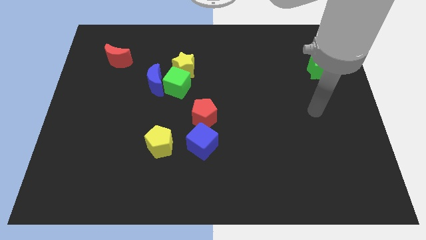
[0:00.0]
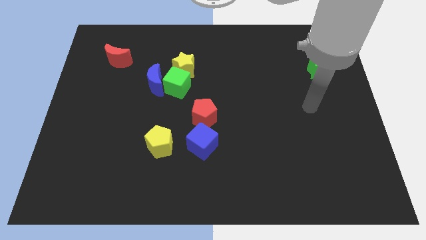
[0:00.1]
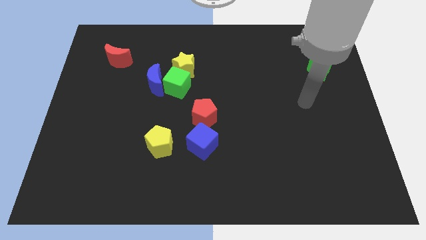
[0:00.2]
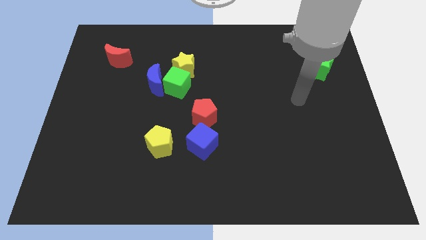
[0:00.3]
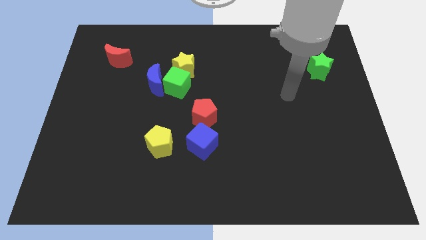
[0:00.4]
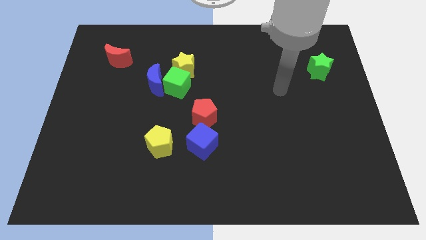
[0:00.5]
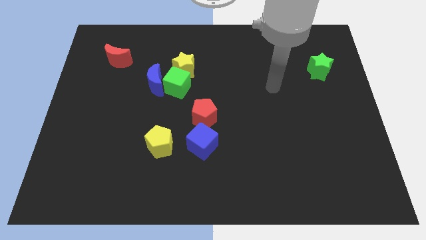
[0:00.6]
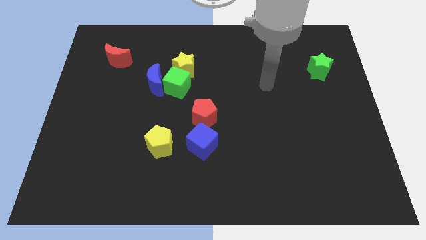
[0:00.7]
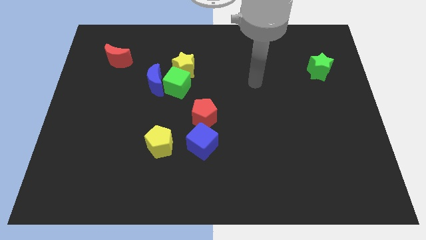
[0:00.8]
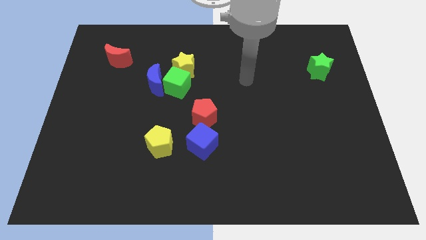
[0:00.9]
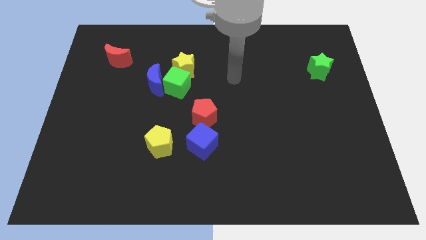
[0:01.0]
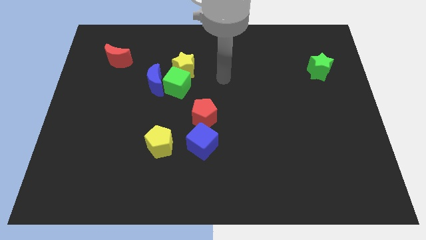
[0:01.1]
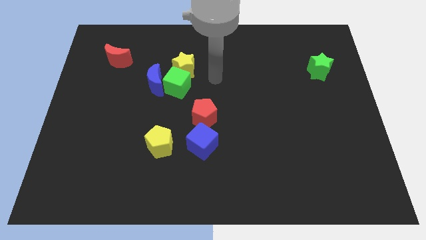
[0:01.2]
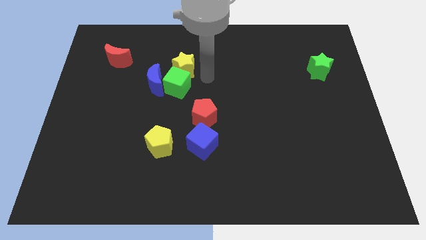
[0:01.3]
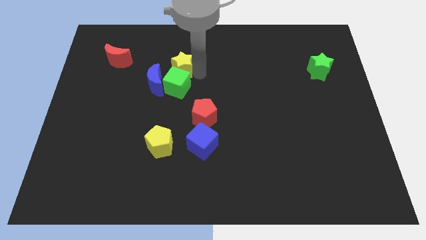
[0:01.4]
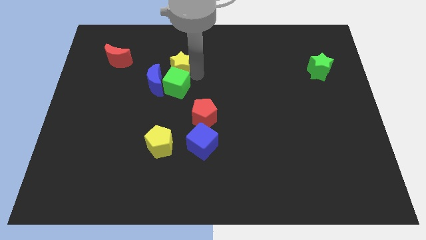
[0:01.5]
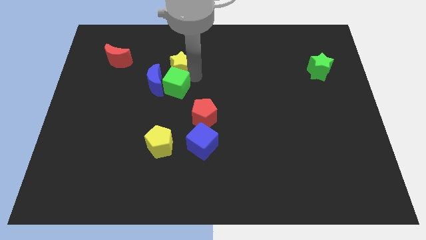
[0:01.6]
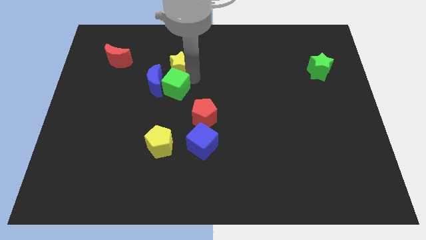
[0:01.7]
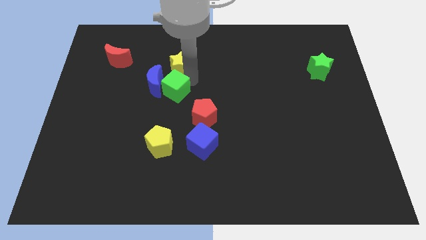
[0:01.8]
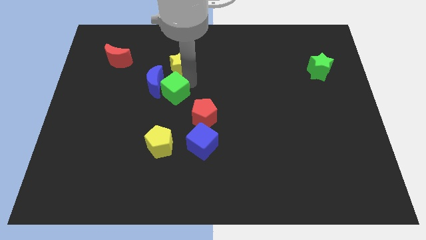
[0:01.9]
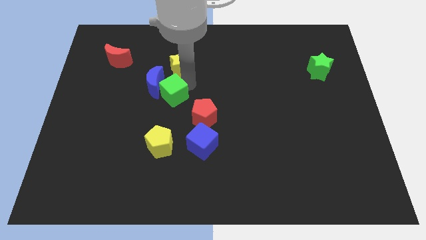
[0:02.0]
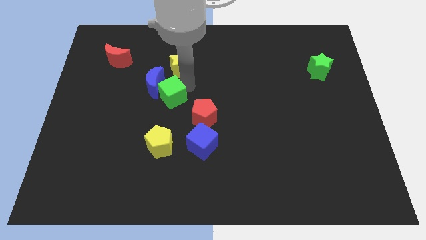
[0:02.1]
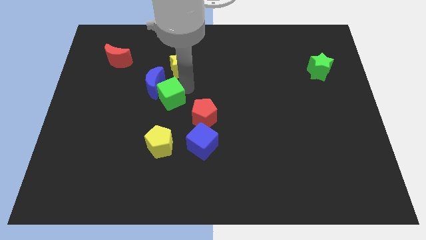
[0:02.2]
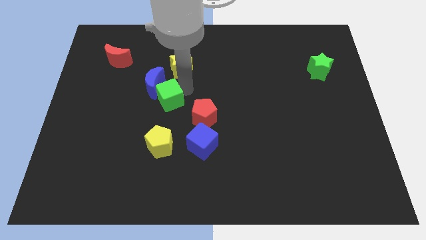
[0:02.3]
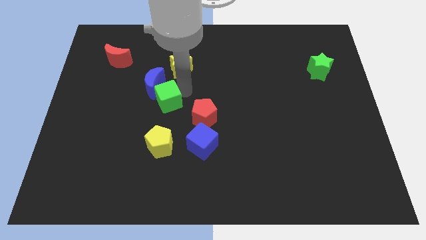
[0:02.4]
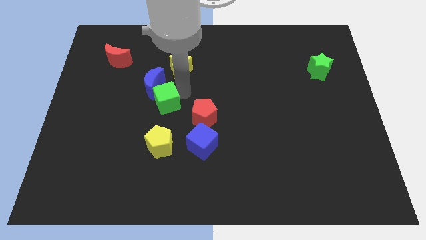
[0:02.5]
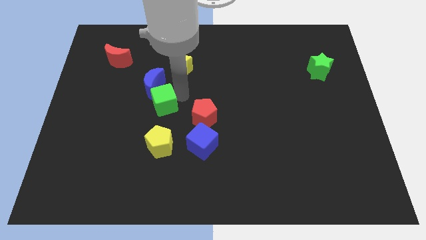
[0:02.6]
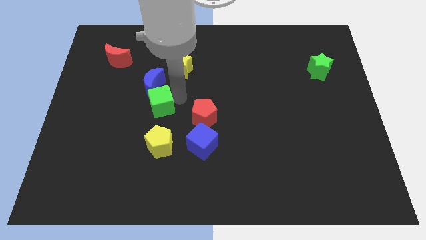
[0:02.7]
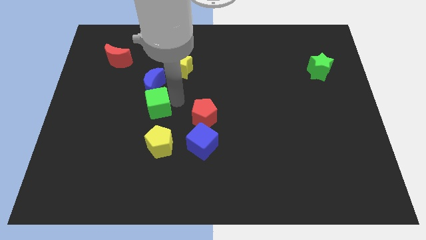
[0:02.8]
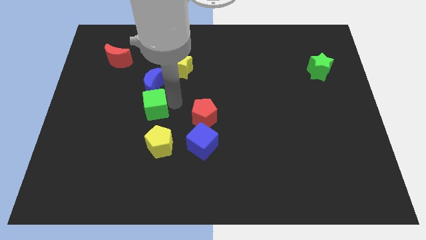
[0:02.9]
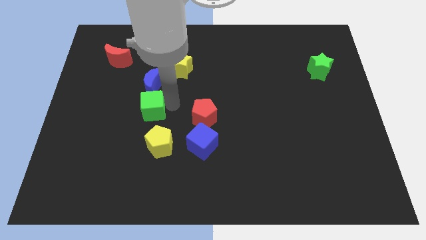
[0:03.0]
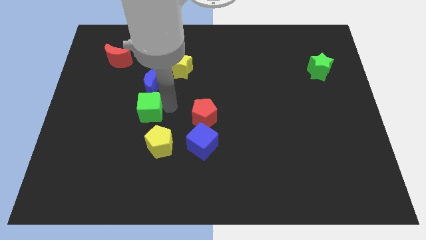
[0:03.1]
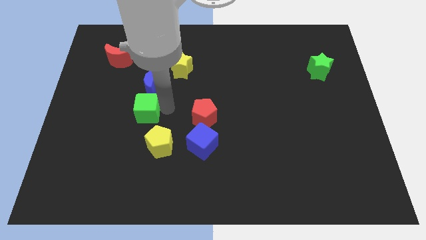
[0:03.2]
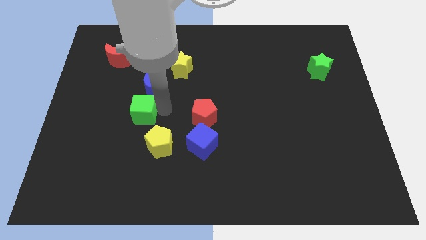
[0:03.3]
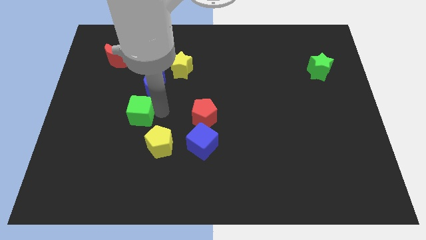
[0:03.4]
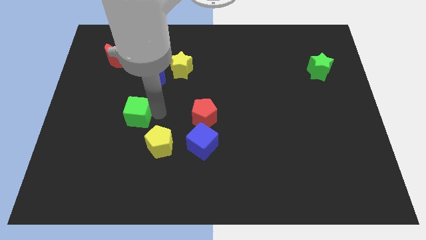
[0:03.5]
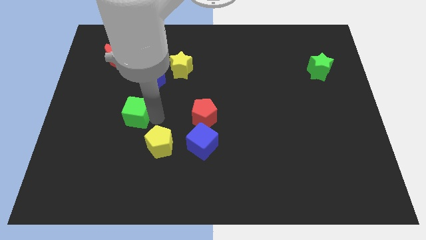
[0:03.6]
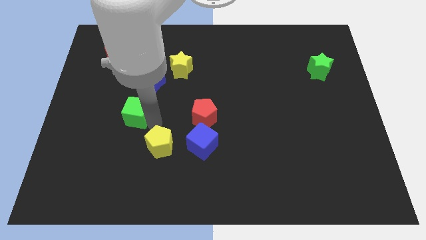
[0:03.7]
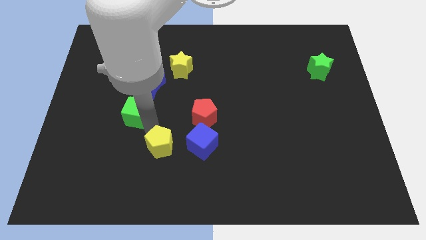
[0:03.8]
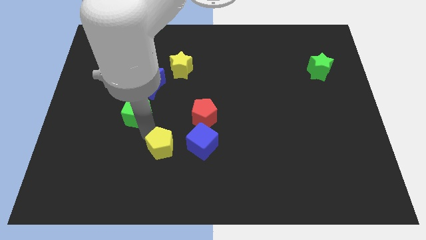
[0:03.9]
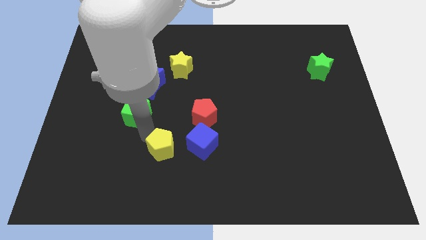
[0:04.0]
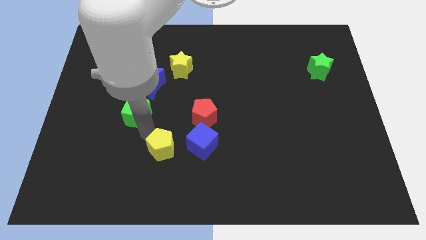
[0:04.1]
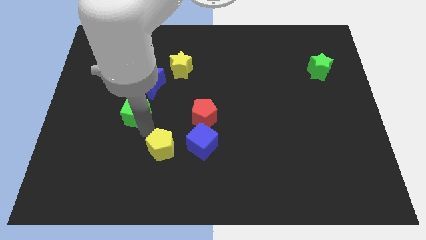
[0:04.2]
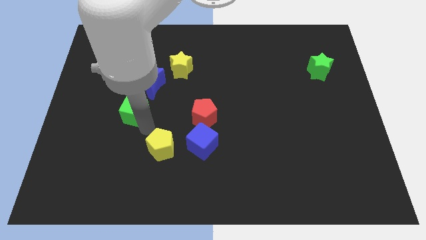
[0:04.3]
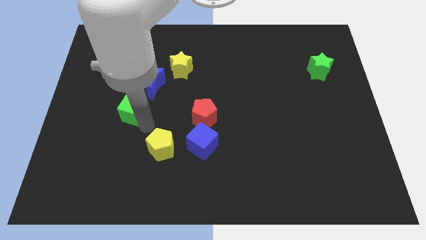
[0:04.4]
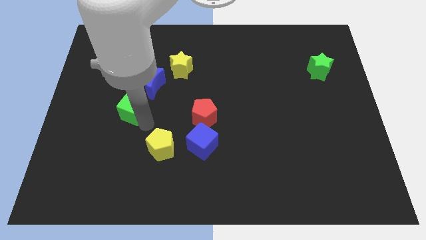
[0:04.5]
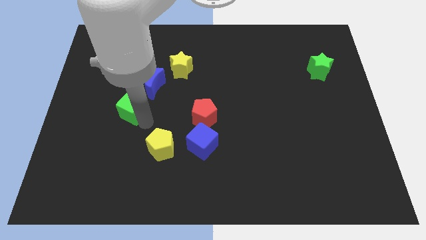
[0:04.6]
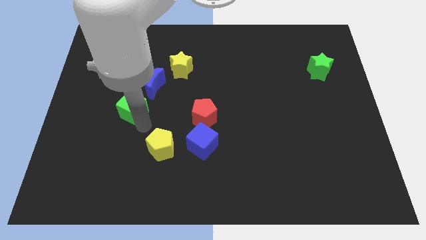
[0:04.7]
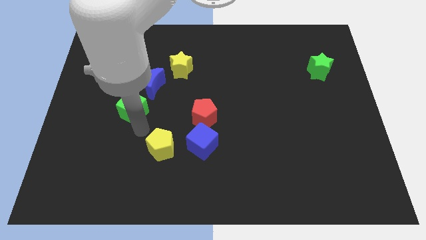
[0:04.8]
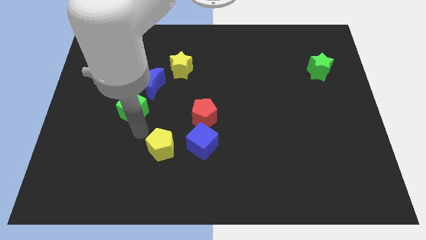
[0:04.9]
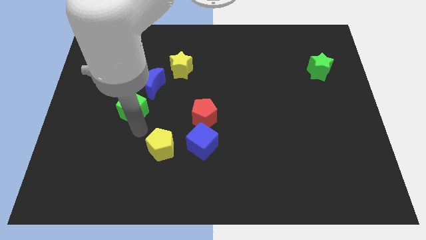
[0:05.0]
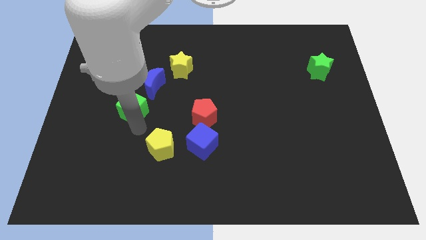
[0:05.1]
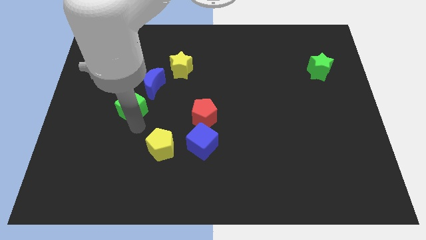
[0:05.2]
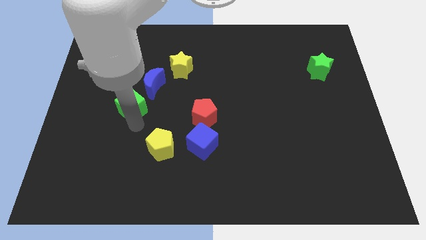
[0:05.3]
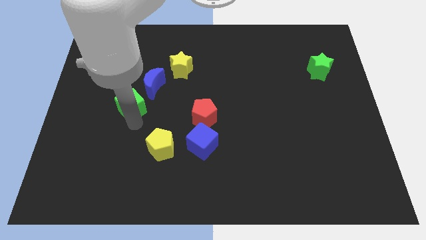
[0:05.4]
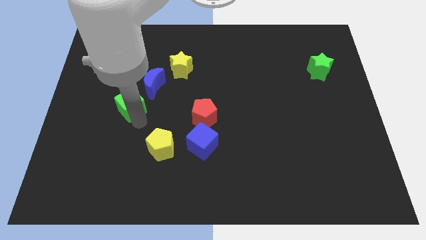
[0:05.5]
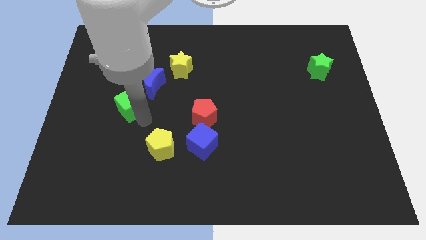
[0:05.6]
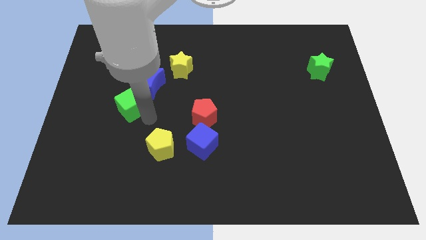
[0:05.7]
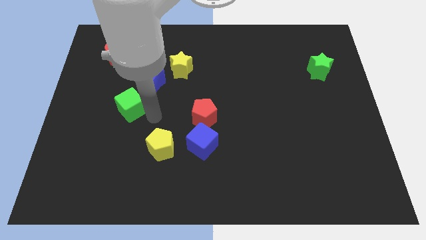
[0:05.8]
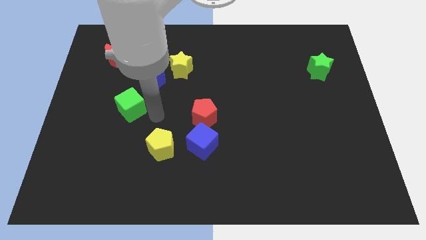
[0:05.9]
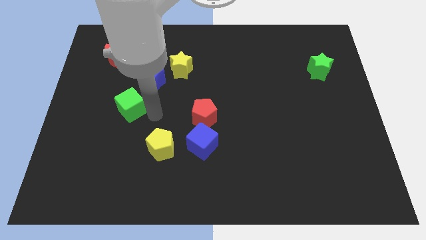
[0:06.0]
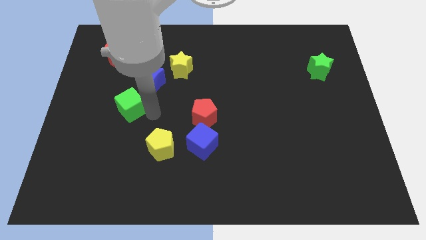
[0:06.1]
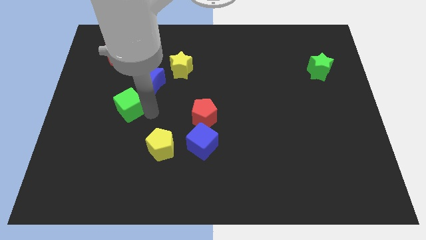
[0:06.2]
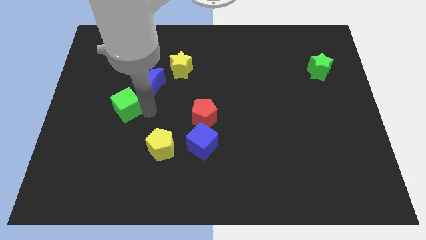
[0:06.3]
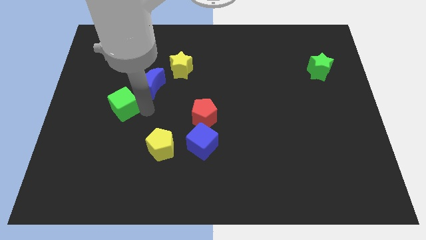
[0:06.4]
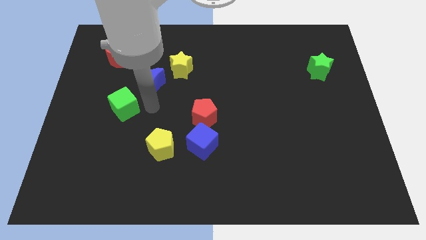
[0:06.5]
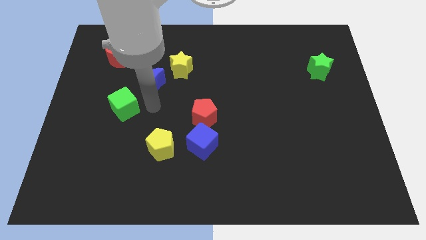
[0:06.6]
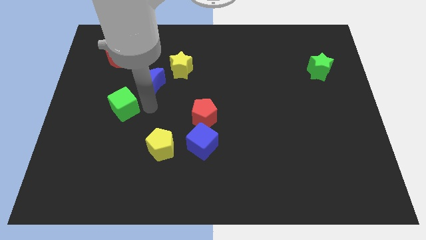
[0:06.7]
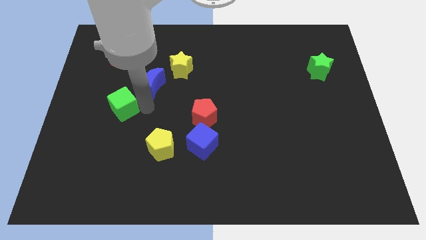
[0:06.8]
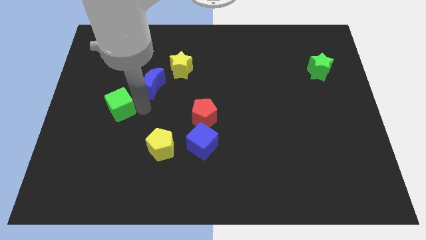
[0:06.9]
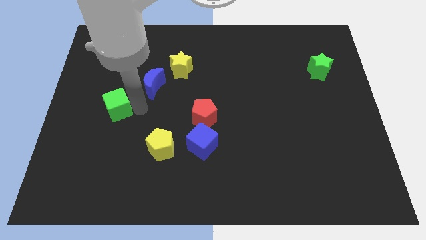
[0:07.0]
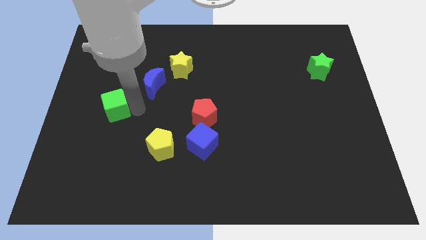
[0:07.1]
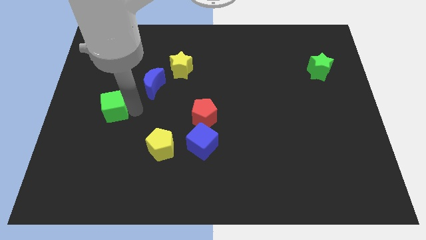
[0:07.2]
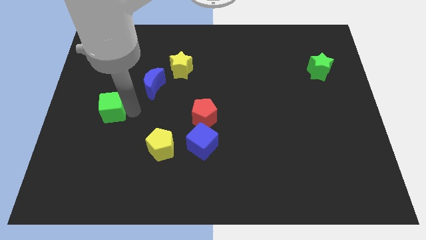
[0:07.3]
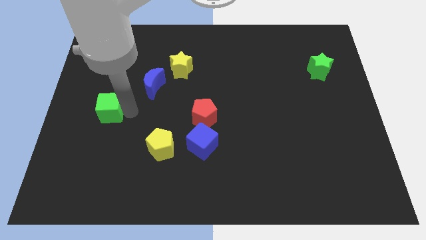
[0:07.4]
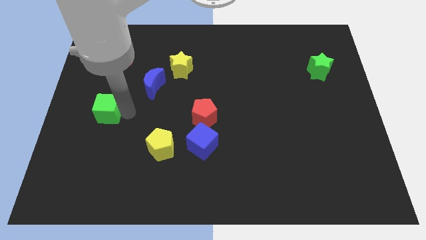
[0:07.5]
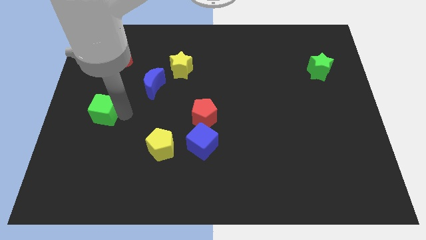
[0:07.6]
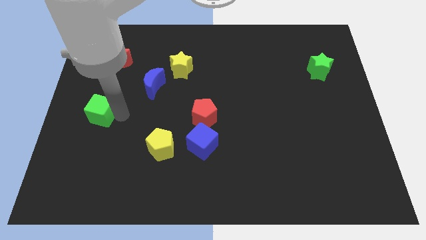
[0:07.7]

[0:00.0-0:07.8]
slide the green cube to the left side
